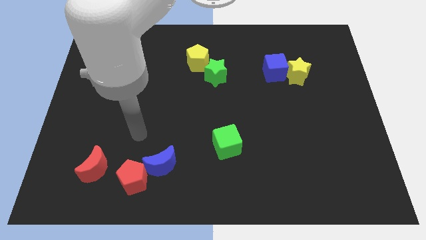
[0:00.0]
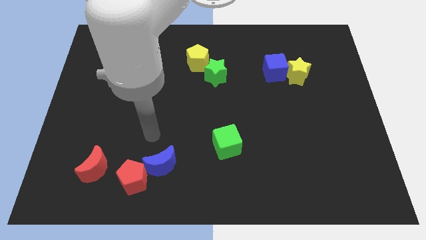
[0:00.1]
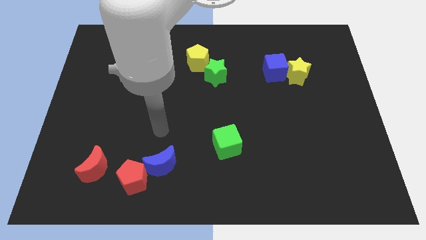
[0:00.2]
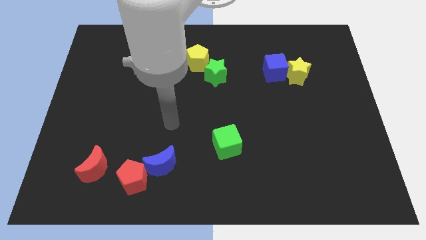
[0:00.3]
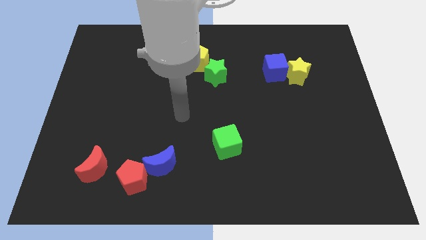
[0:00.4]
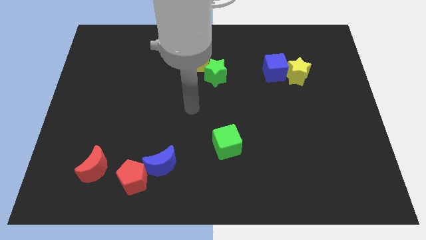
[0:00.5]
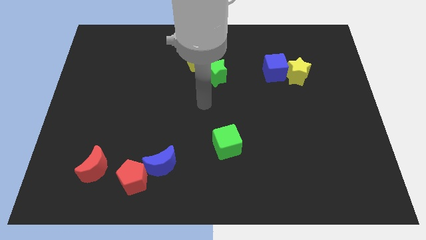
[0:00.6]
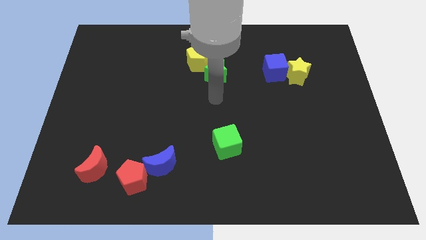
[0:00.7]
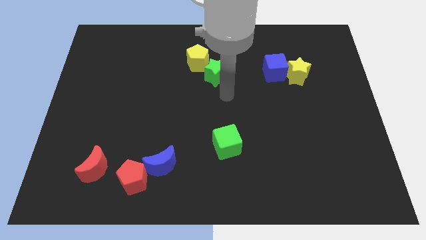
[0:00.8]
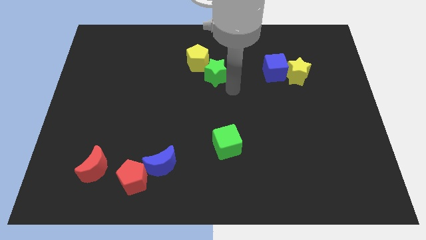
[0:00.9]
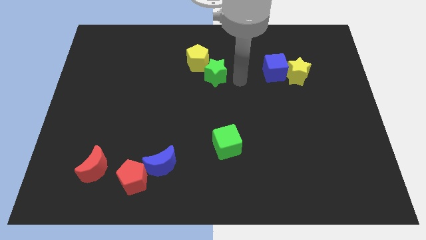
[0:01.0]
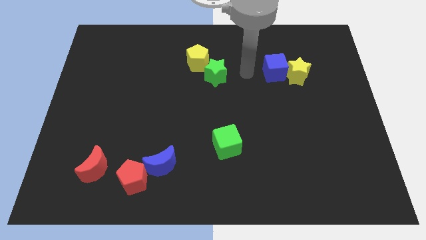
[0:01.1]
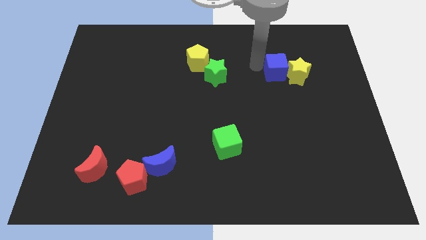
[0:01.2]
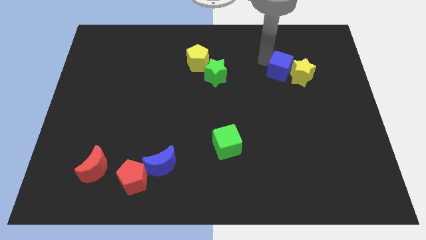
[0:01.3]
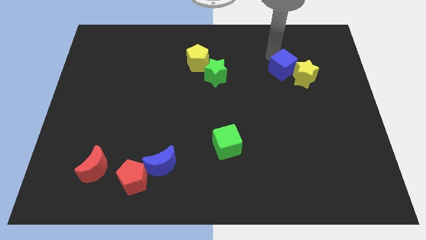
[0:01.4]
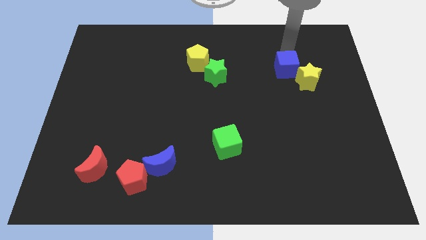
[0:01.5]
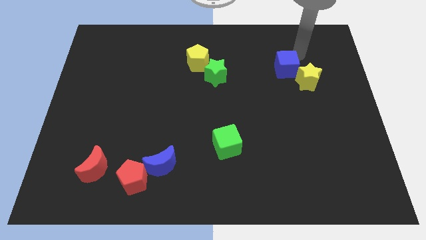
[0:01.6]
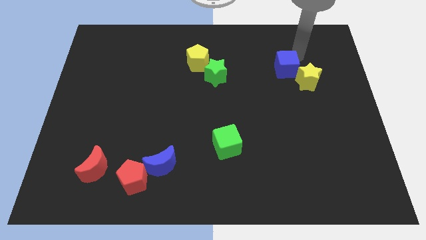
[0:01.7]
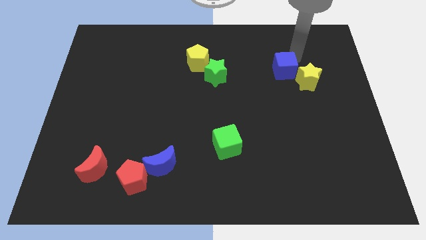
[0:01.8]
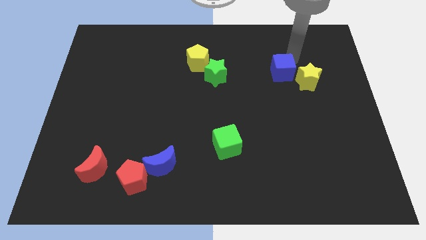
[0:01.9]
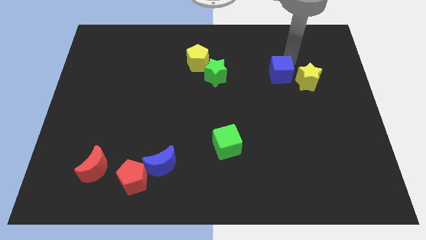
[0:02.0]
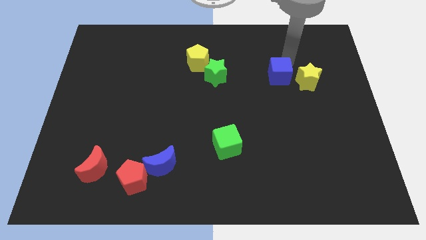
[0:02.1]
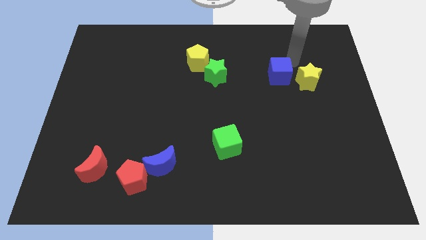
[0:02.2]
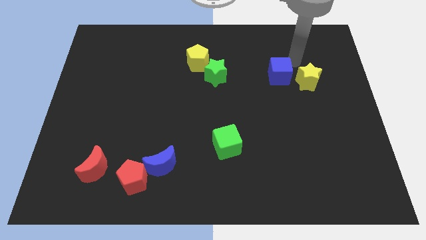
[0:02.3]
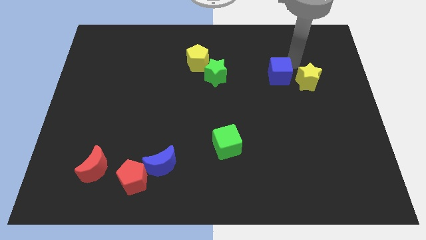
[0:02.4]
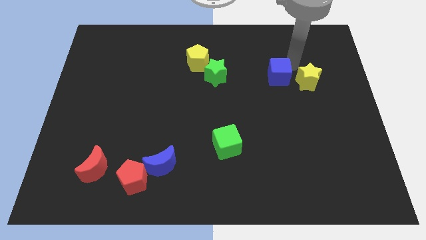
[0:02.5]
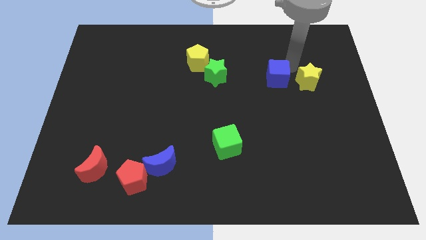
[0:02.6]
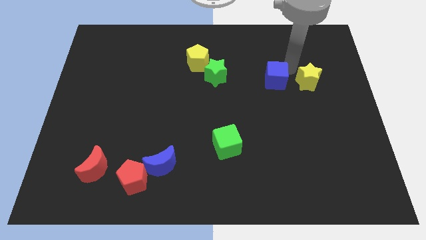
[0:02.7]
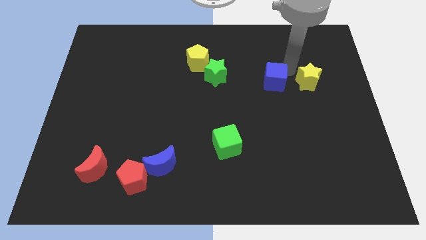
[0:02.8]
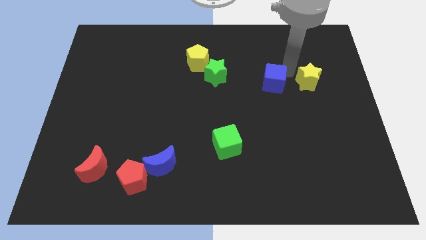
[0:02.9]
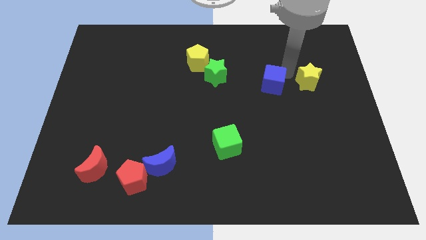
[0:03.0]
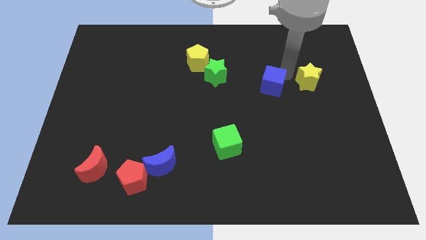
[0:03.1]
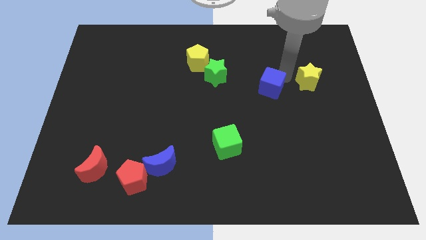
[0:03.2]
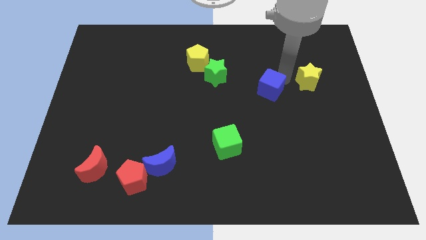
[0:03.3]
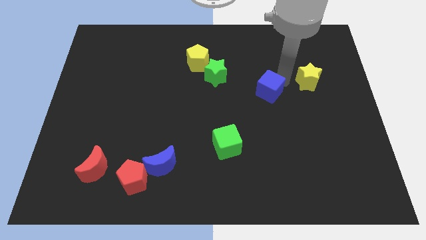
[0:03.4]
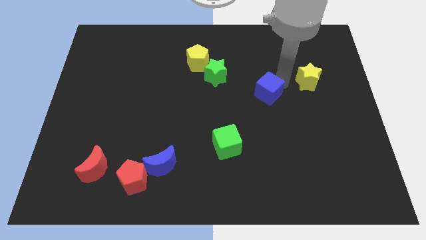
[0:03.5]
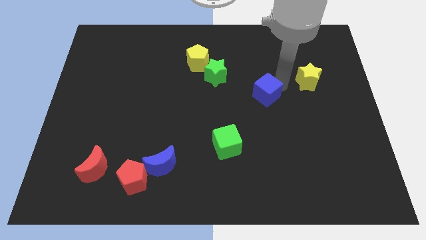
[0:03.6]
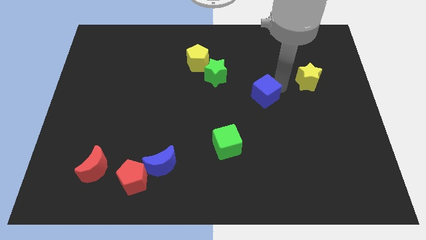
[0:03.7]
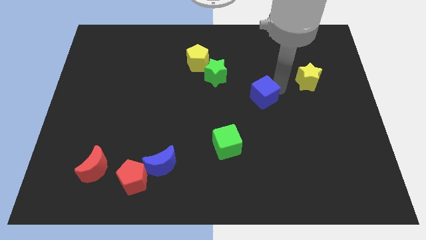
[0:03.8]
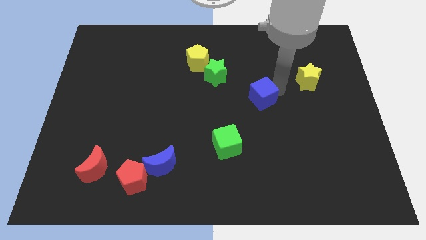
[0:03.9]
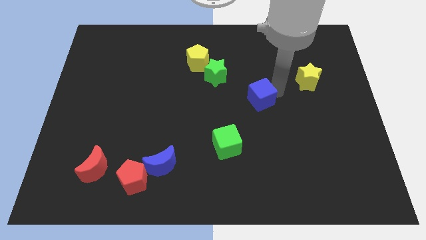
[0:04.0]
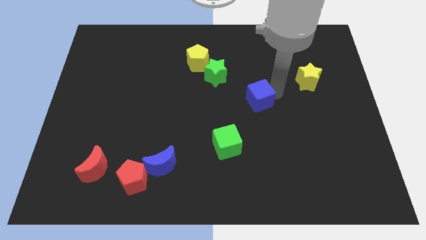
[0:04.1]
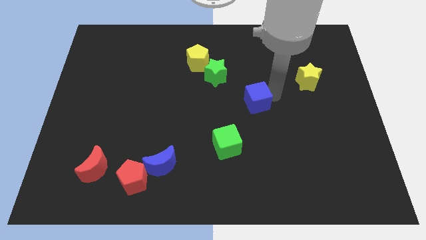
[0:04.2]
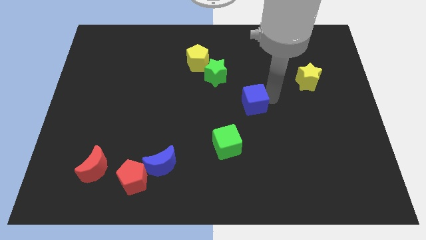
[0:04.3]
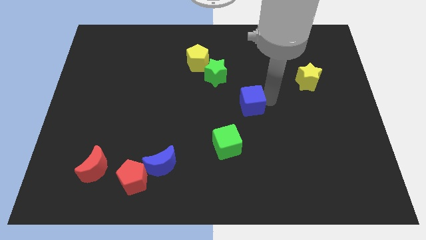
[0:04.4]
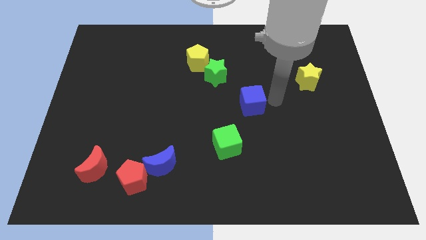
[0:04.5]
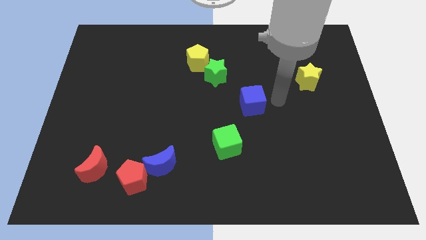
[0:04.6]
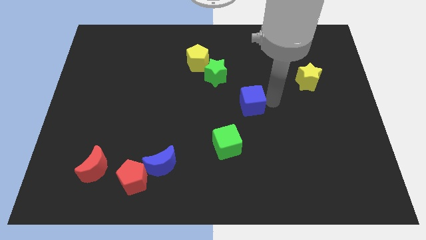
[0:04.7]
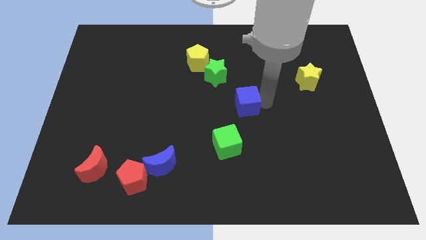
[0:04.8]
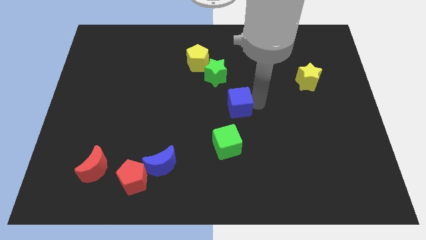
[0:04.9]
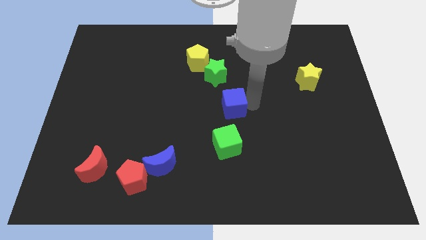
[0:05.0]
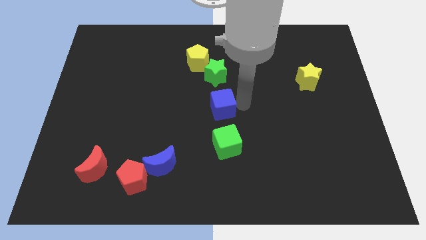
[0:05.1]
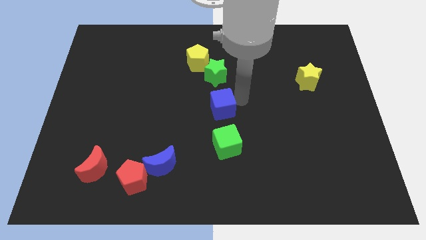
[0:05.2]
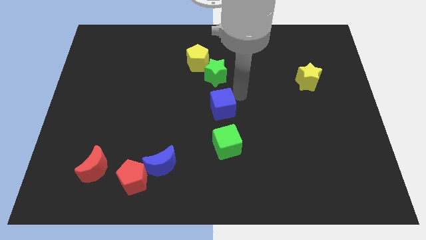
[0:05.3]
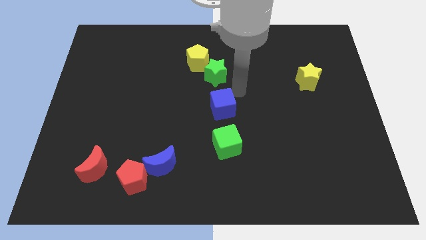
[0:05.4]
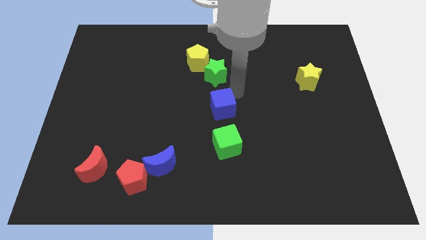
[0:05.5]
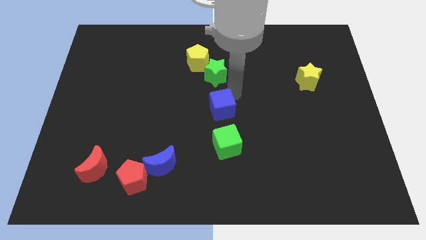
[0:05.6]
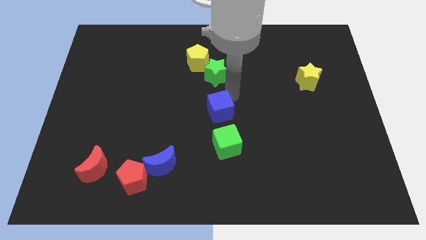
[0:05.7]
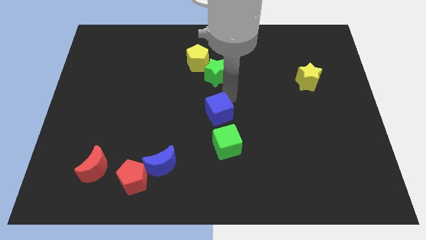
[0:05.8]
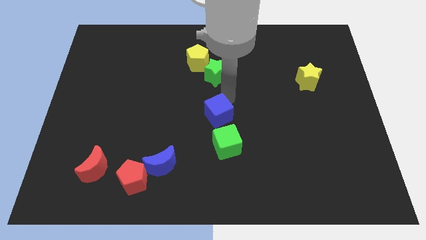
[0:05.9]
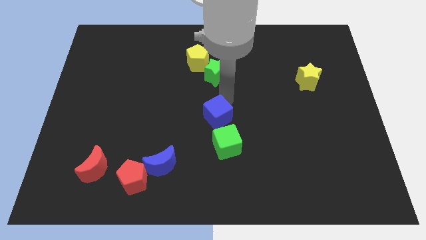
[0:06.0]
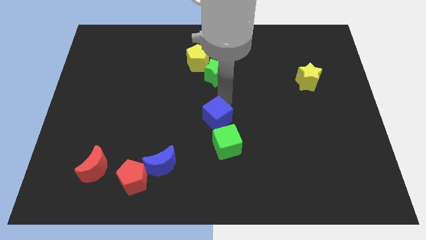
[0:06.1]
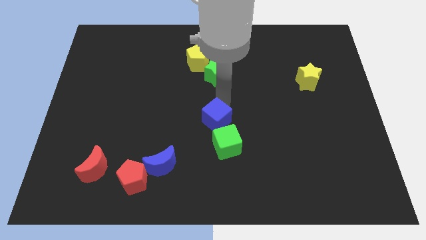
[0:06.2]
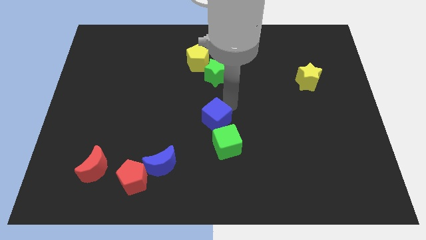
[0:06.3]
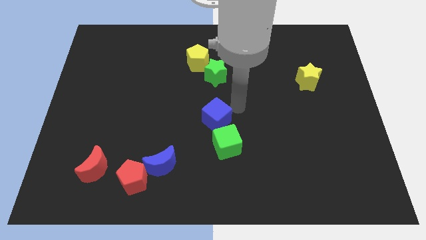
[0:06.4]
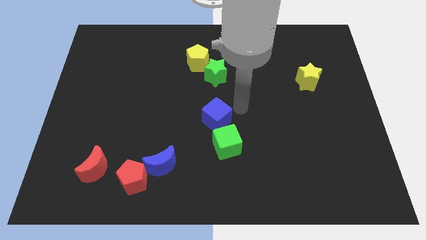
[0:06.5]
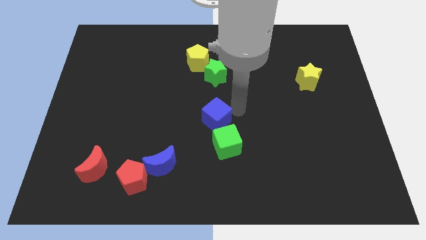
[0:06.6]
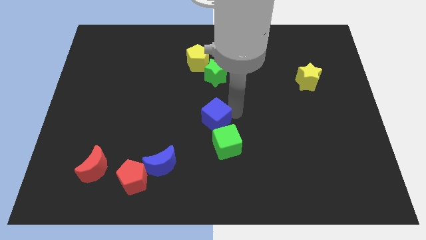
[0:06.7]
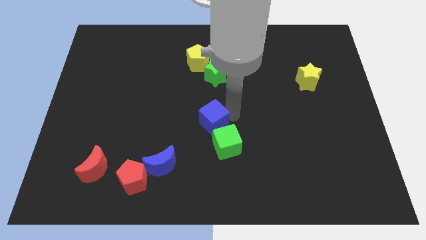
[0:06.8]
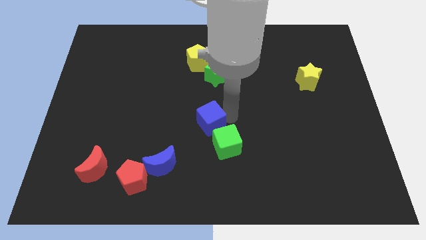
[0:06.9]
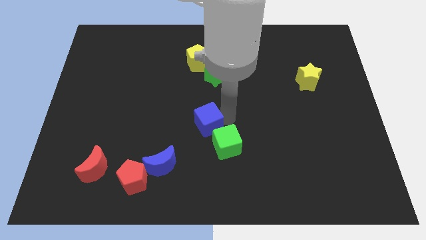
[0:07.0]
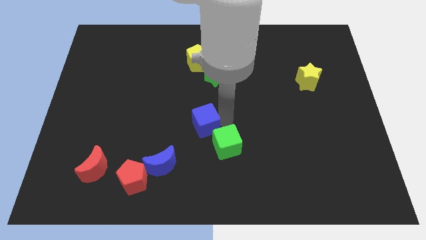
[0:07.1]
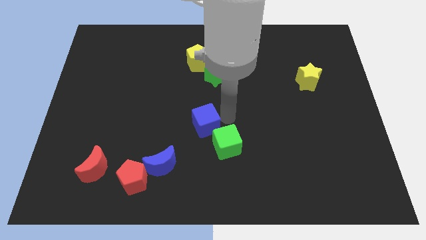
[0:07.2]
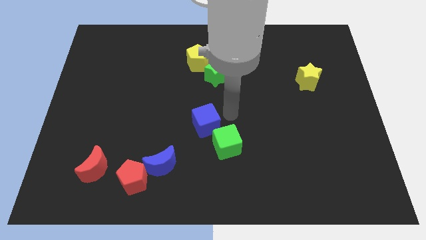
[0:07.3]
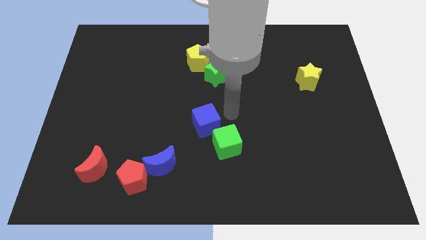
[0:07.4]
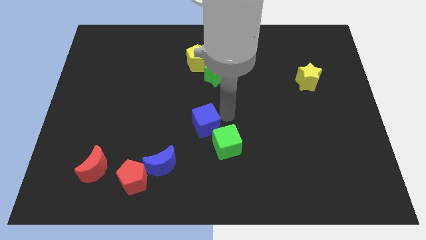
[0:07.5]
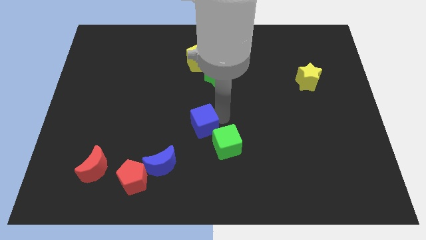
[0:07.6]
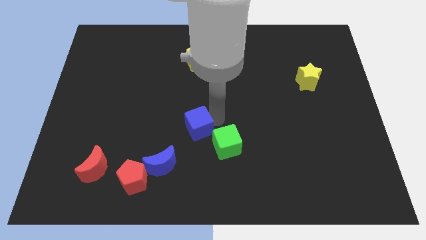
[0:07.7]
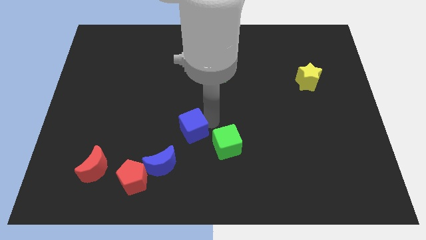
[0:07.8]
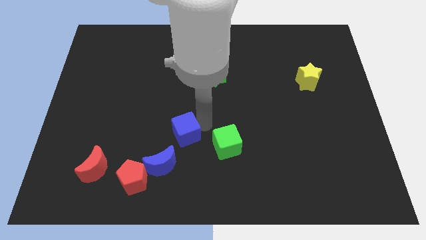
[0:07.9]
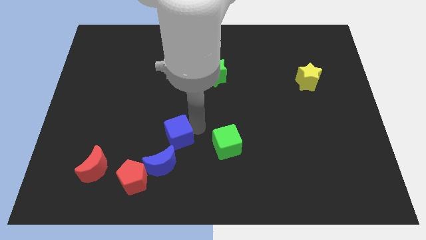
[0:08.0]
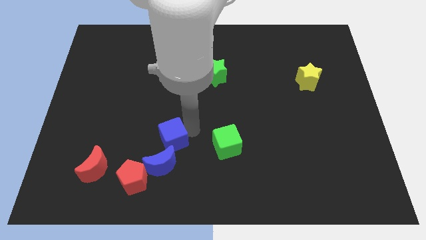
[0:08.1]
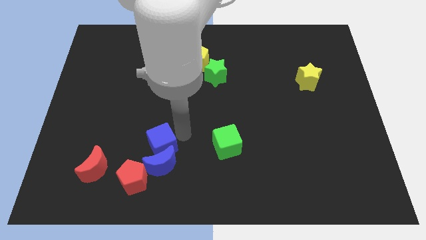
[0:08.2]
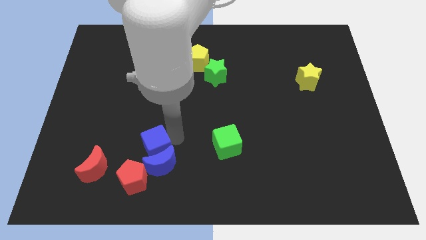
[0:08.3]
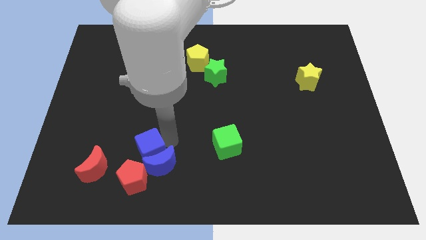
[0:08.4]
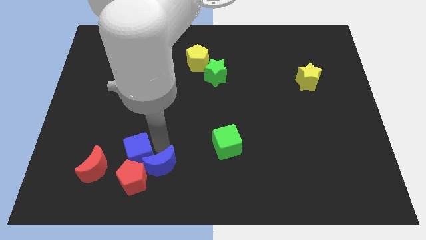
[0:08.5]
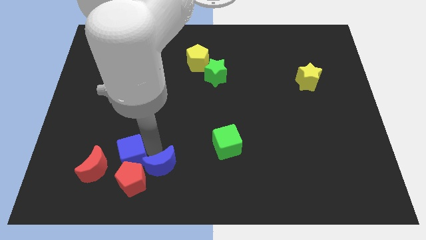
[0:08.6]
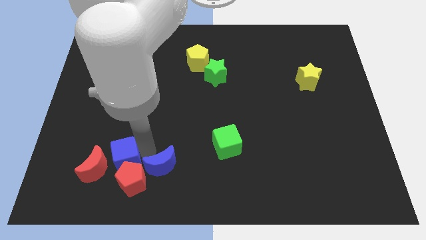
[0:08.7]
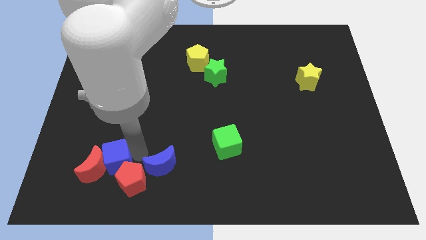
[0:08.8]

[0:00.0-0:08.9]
put the blue cube towards the red moon
